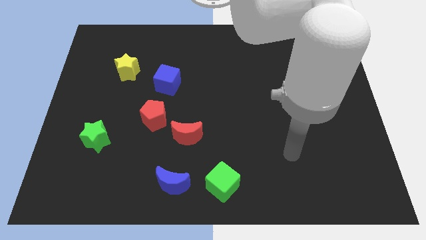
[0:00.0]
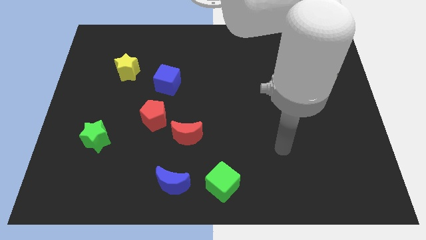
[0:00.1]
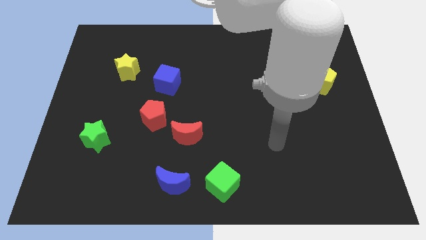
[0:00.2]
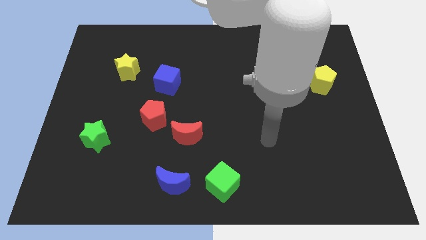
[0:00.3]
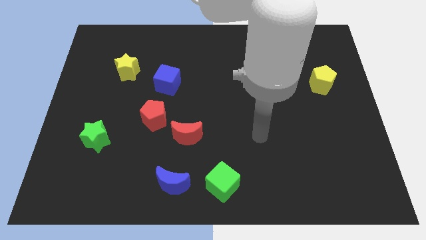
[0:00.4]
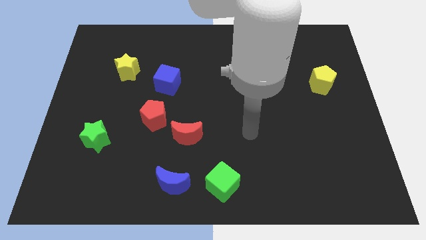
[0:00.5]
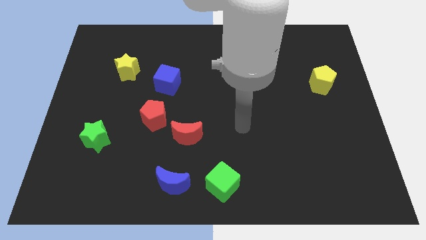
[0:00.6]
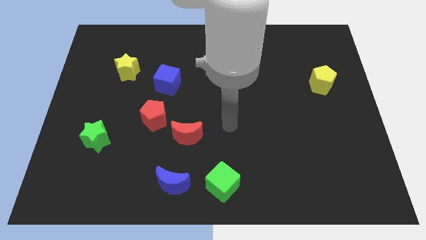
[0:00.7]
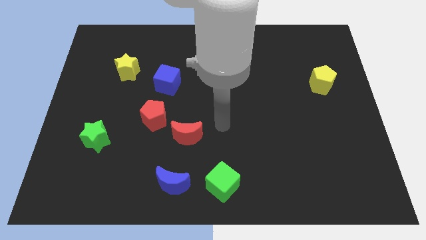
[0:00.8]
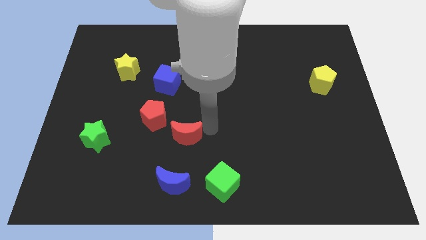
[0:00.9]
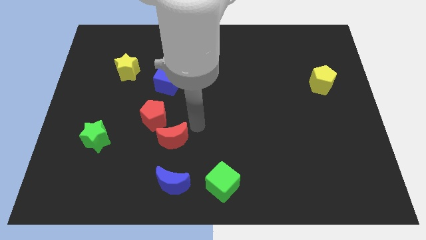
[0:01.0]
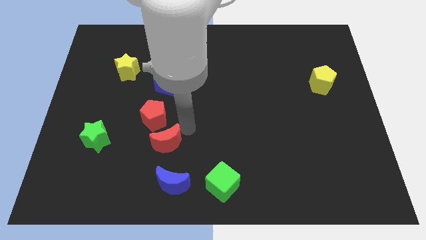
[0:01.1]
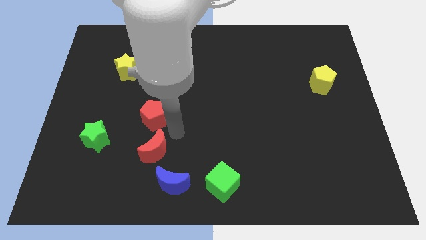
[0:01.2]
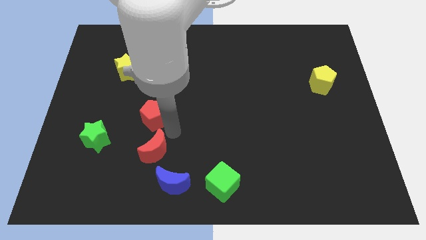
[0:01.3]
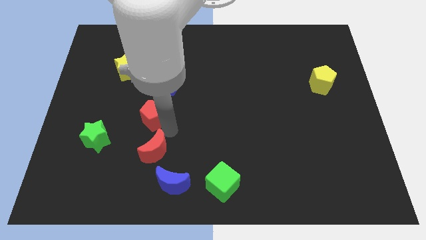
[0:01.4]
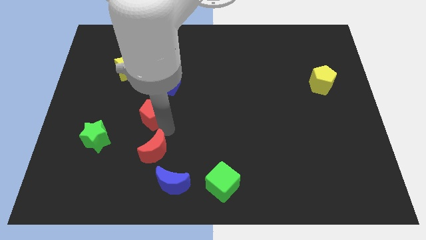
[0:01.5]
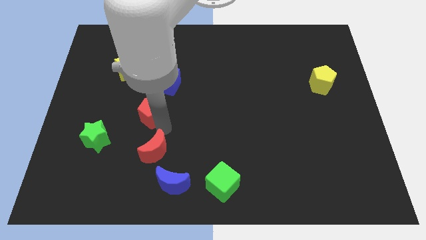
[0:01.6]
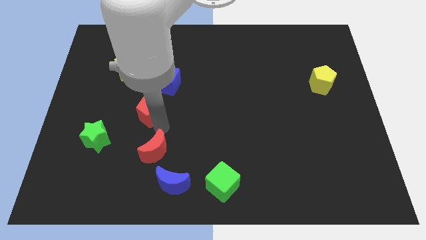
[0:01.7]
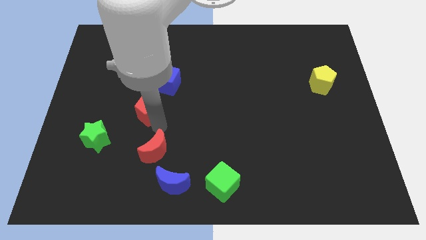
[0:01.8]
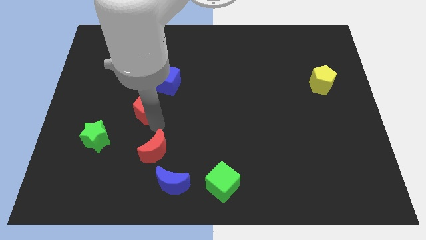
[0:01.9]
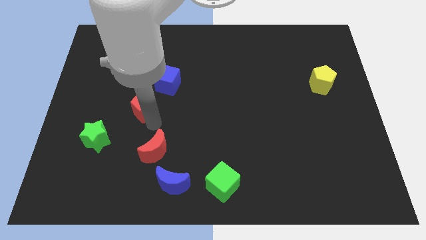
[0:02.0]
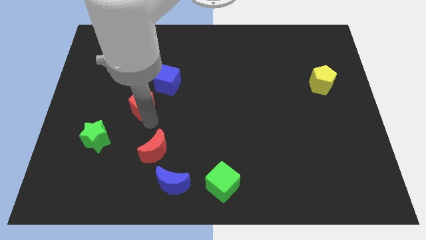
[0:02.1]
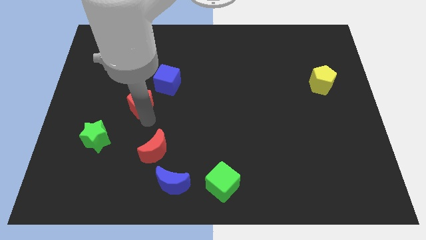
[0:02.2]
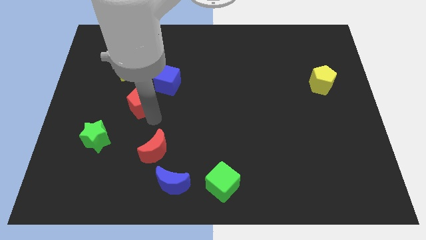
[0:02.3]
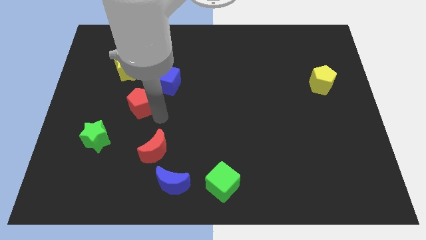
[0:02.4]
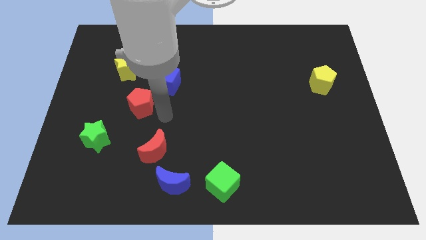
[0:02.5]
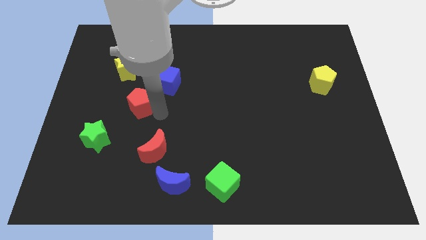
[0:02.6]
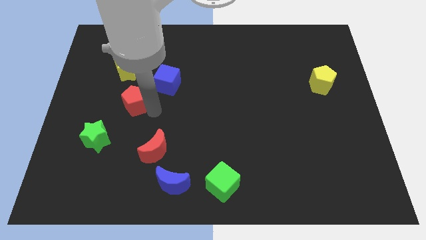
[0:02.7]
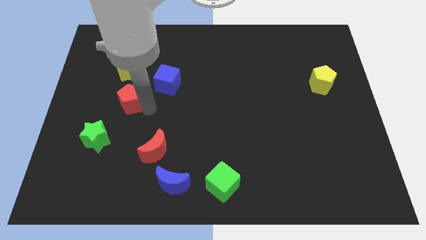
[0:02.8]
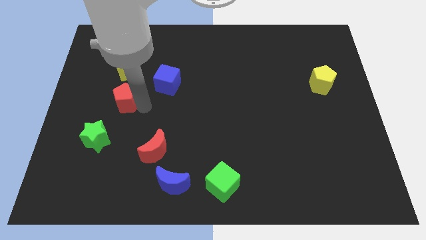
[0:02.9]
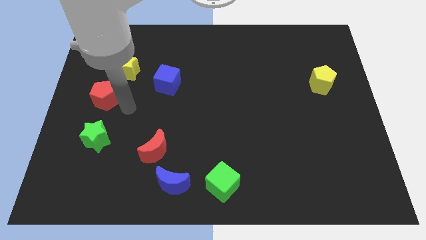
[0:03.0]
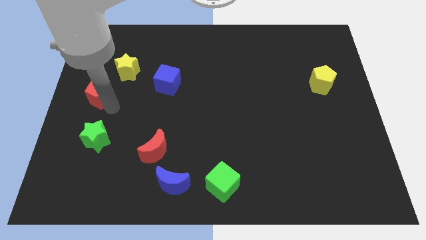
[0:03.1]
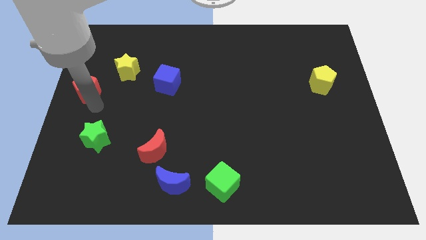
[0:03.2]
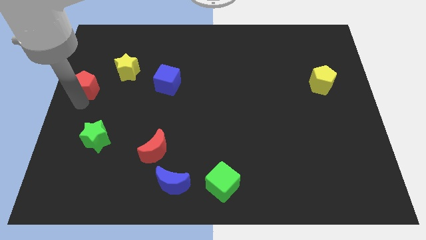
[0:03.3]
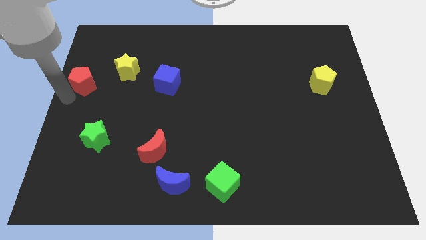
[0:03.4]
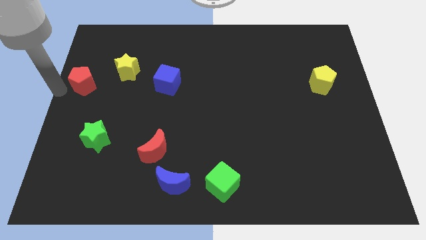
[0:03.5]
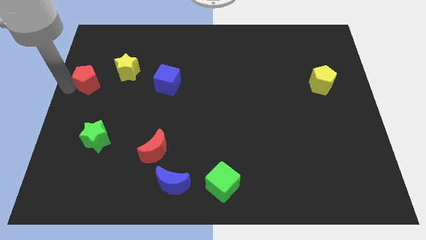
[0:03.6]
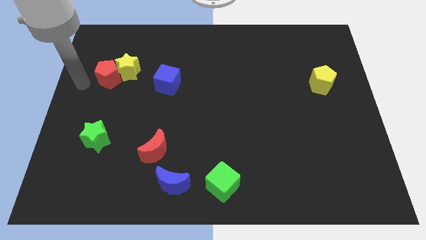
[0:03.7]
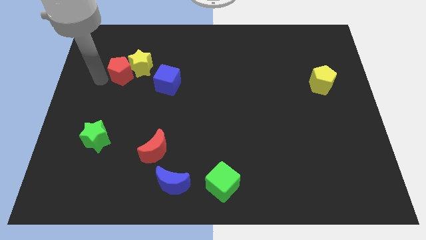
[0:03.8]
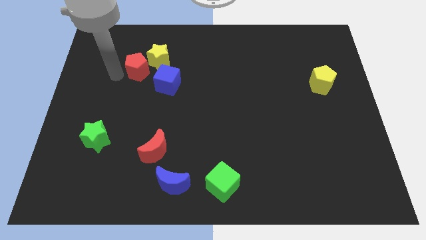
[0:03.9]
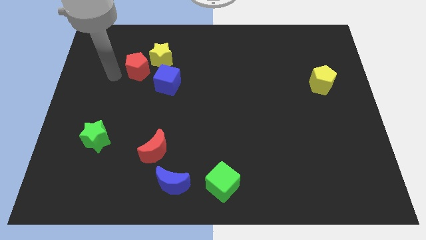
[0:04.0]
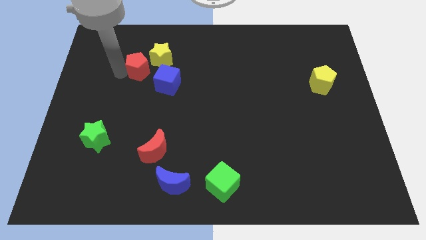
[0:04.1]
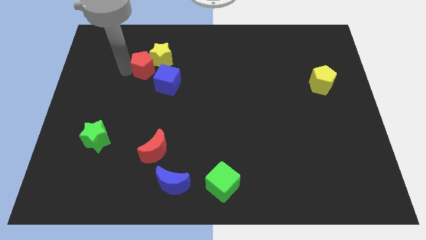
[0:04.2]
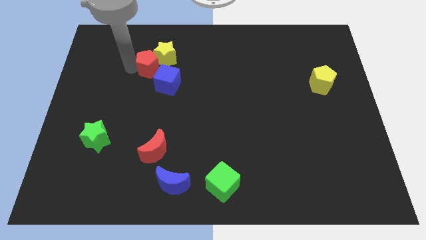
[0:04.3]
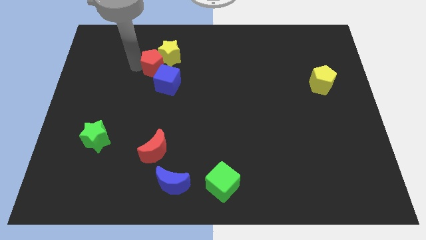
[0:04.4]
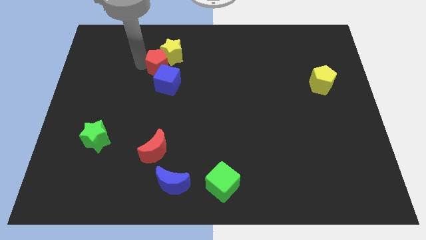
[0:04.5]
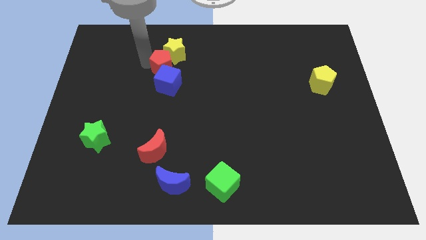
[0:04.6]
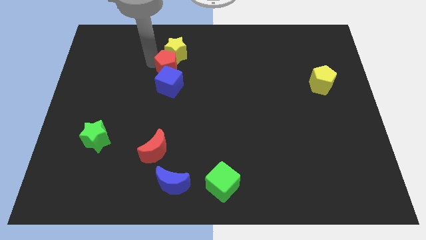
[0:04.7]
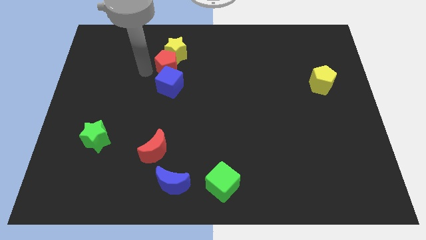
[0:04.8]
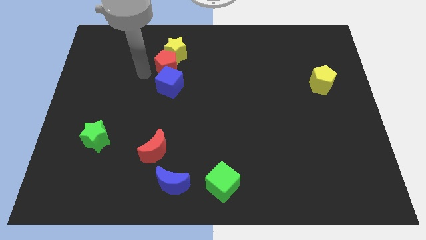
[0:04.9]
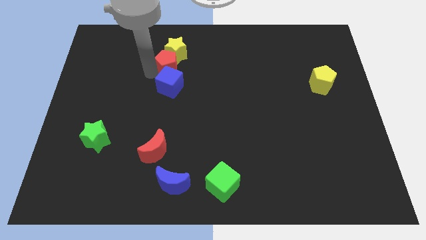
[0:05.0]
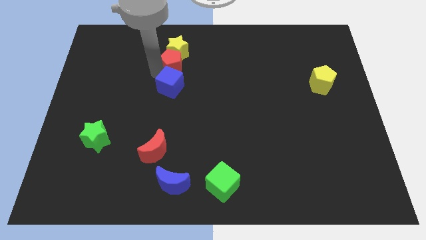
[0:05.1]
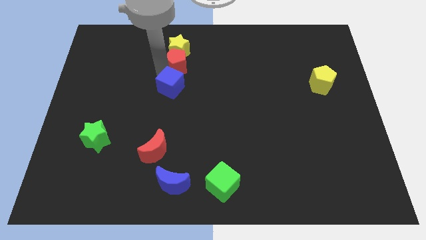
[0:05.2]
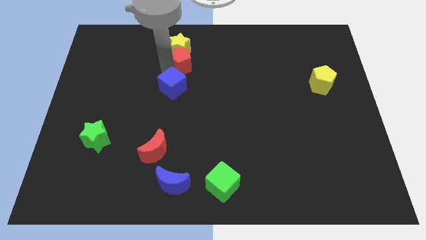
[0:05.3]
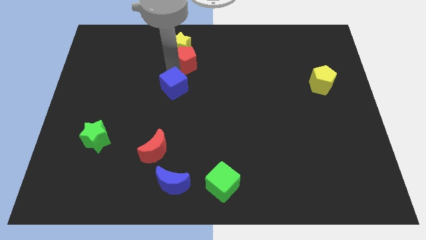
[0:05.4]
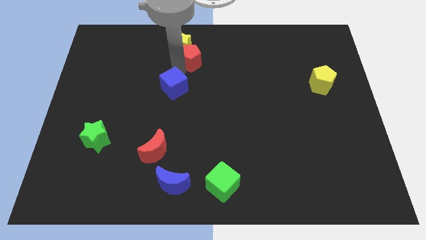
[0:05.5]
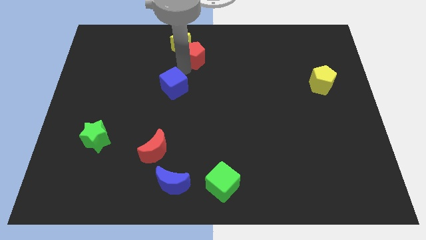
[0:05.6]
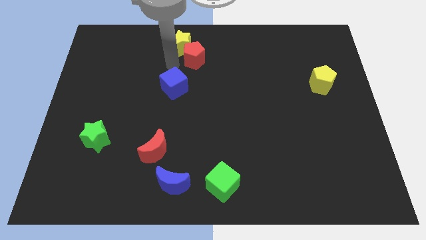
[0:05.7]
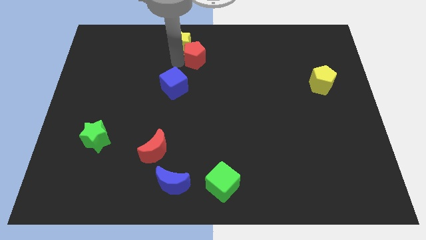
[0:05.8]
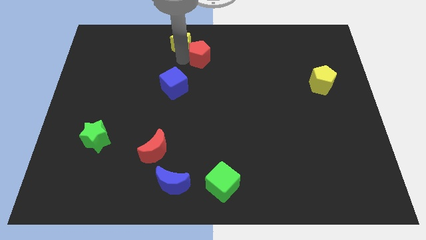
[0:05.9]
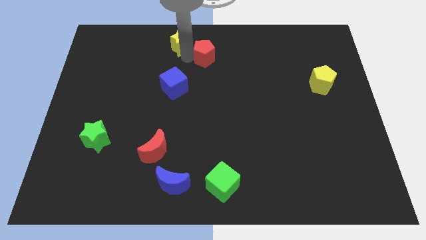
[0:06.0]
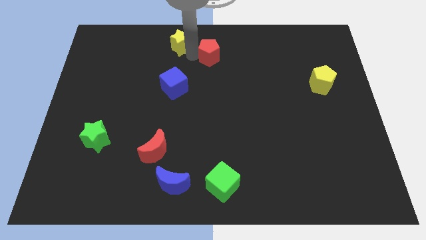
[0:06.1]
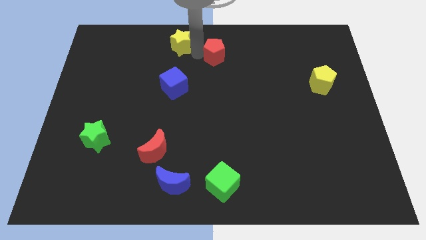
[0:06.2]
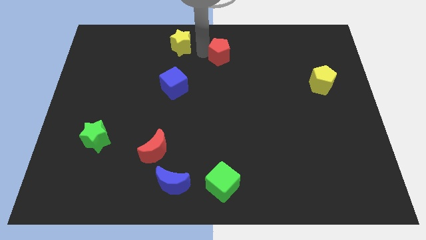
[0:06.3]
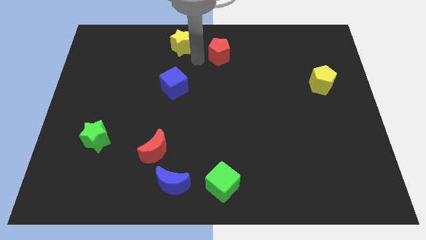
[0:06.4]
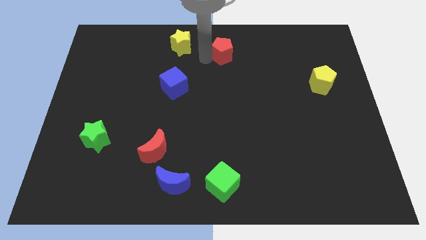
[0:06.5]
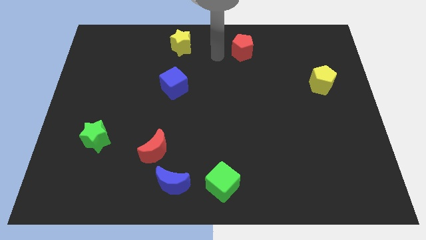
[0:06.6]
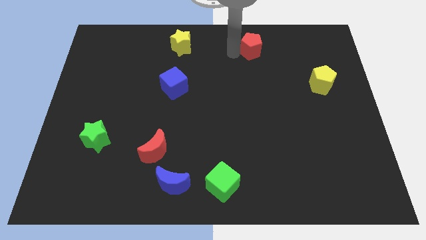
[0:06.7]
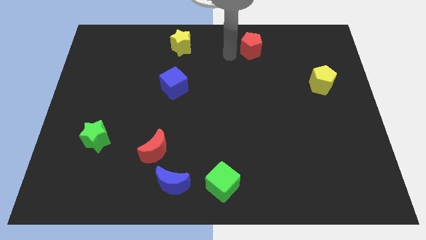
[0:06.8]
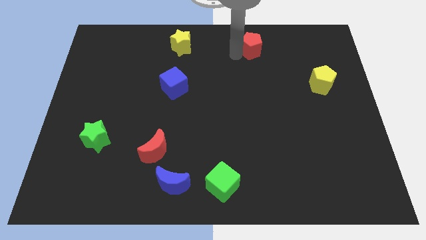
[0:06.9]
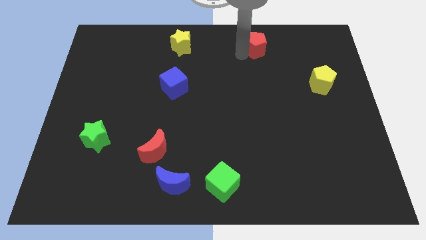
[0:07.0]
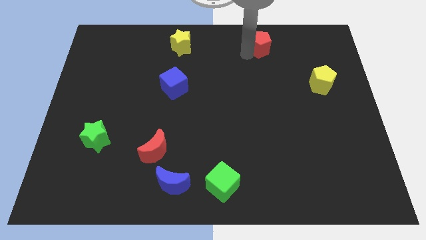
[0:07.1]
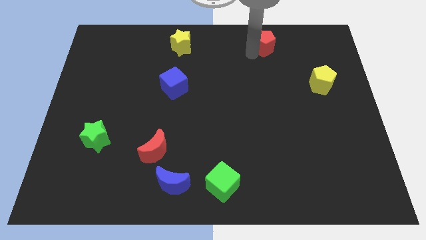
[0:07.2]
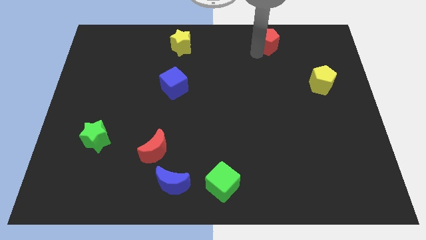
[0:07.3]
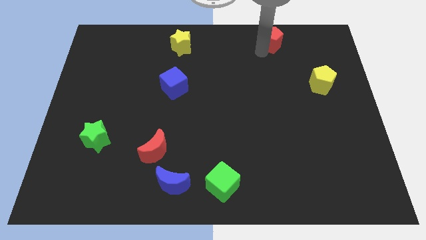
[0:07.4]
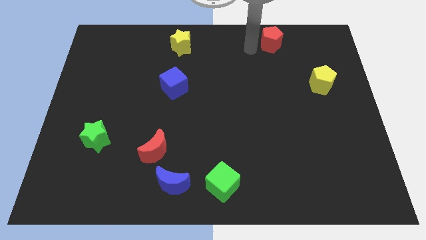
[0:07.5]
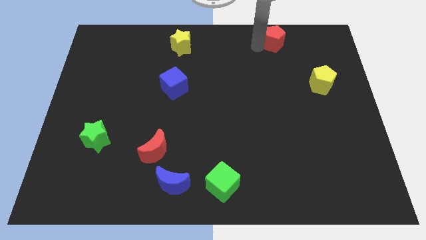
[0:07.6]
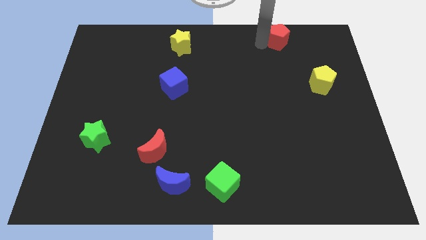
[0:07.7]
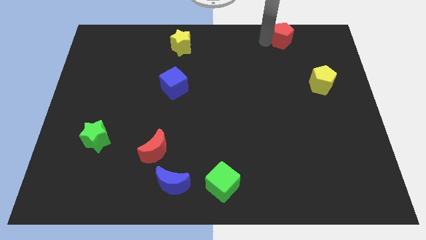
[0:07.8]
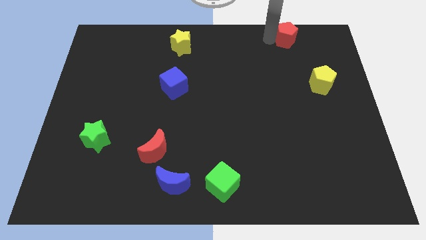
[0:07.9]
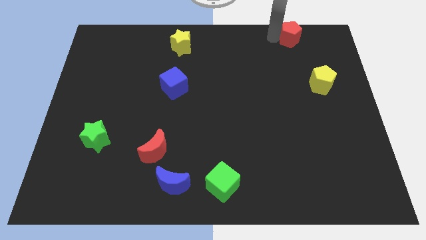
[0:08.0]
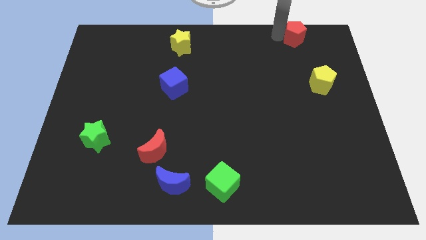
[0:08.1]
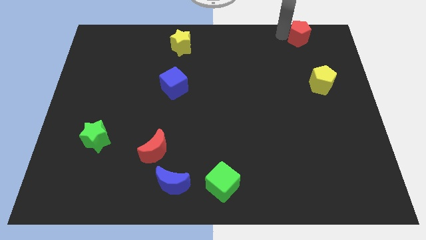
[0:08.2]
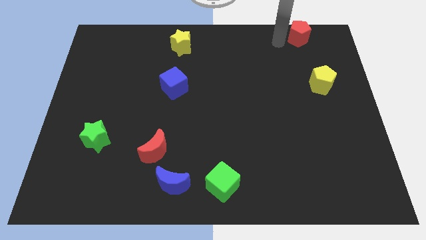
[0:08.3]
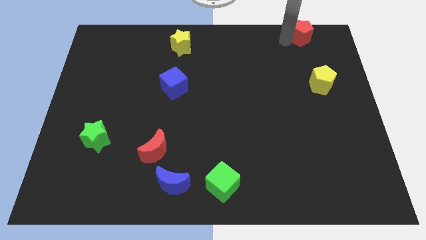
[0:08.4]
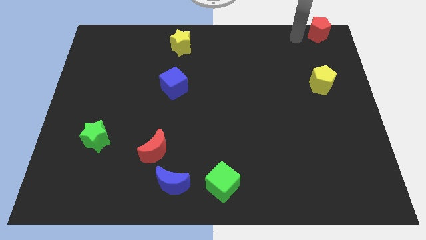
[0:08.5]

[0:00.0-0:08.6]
slide the red pentagon to the top right of the board
